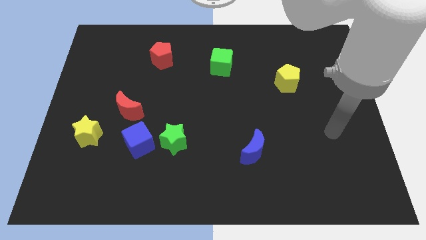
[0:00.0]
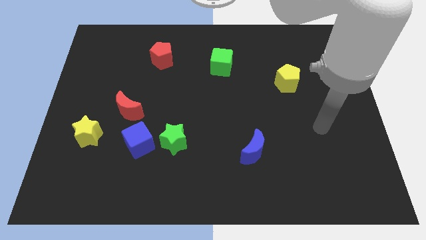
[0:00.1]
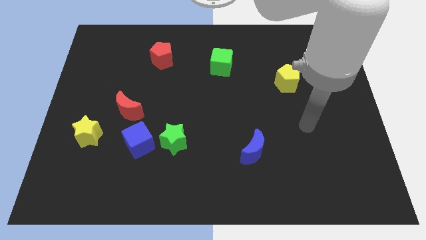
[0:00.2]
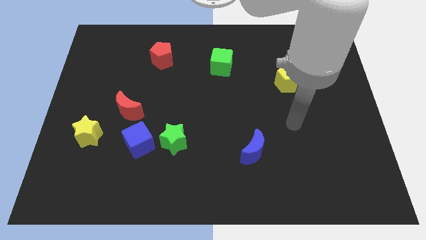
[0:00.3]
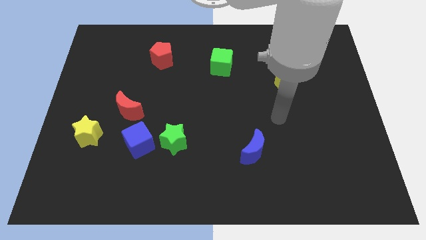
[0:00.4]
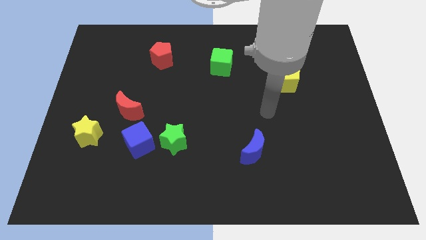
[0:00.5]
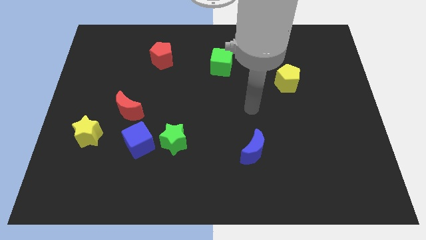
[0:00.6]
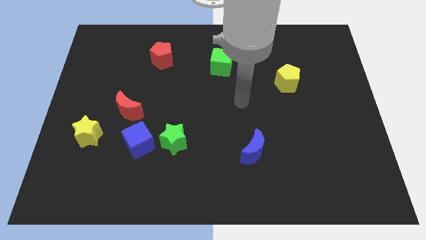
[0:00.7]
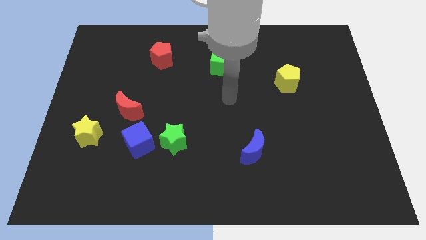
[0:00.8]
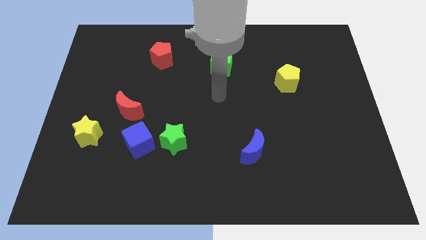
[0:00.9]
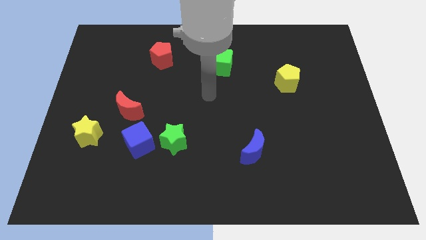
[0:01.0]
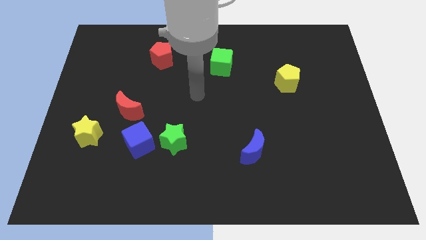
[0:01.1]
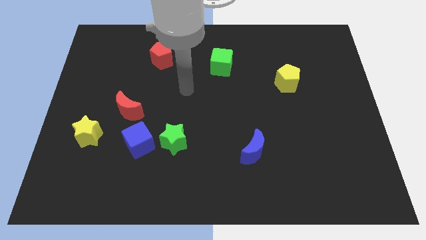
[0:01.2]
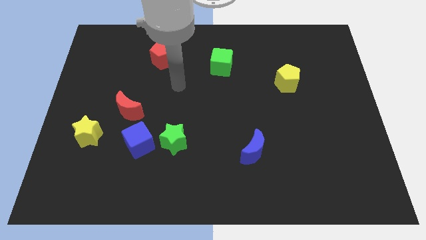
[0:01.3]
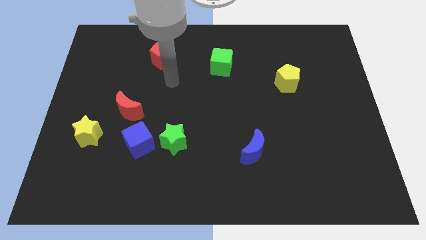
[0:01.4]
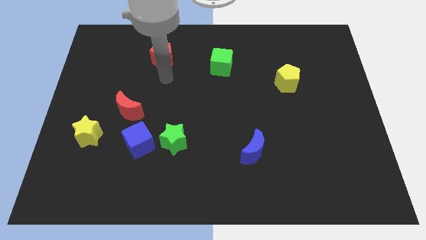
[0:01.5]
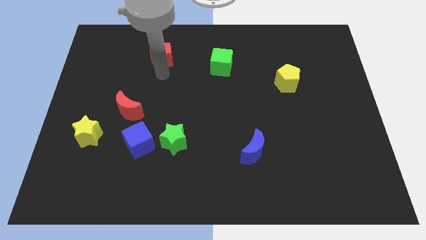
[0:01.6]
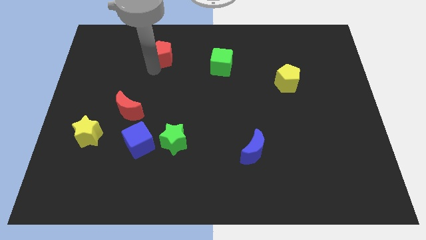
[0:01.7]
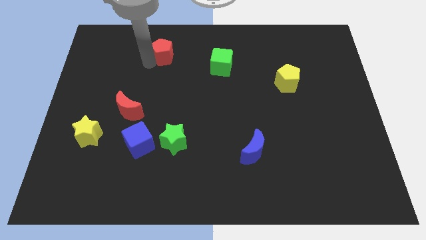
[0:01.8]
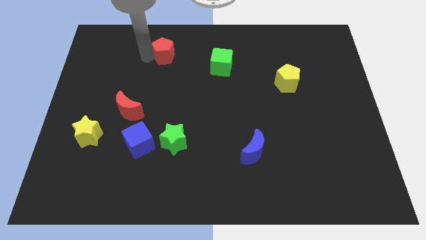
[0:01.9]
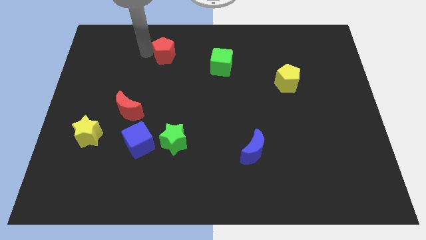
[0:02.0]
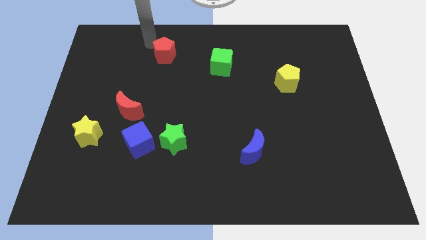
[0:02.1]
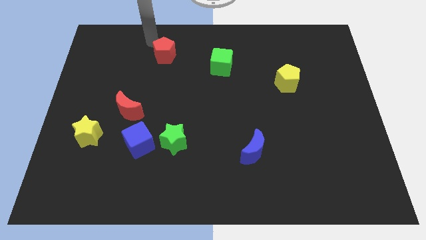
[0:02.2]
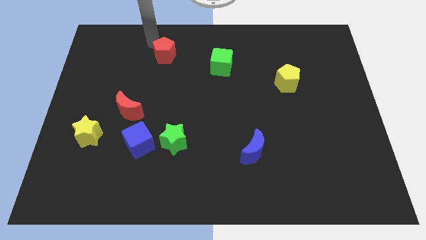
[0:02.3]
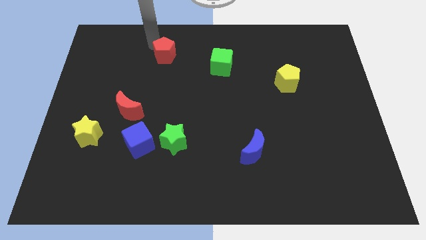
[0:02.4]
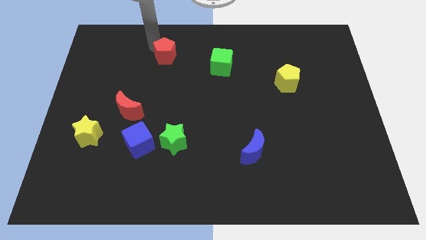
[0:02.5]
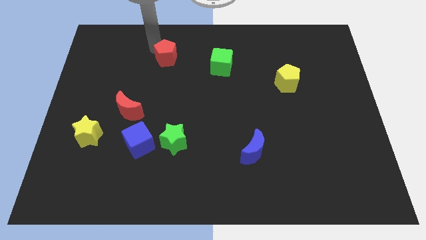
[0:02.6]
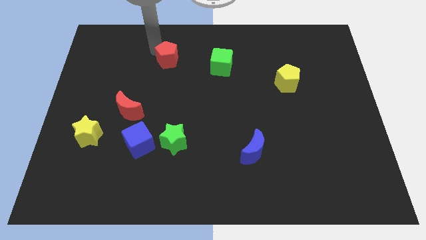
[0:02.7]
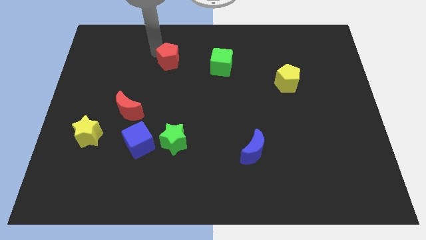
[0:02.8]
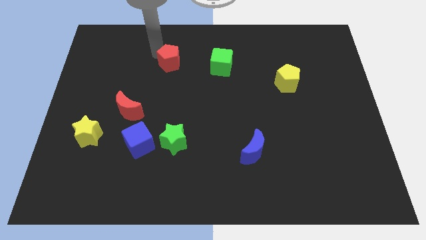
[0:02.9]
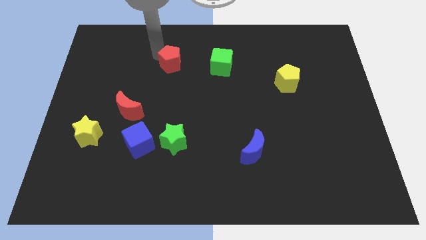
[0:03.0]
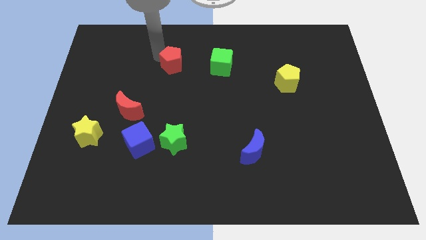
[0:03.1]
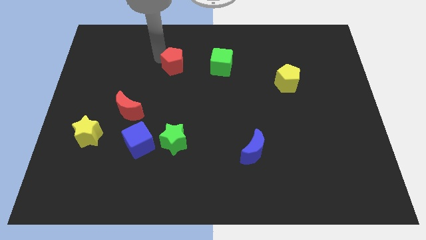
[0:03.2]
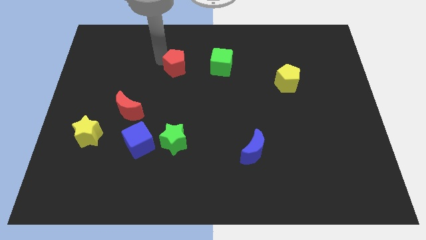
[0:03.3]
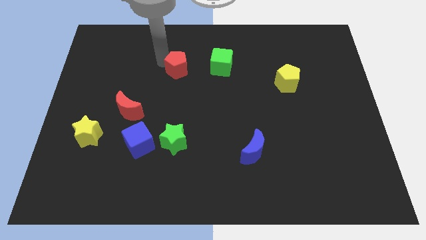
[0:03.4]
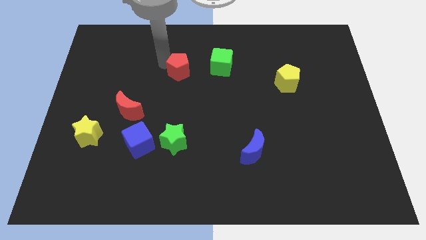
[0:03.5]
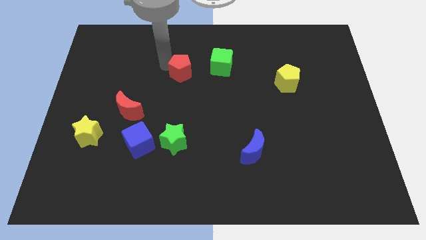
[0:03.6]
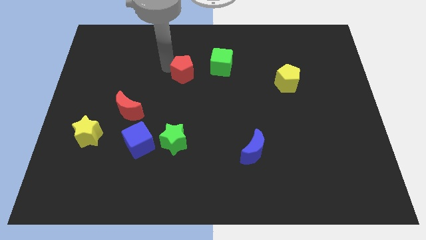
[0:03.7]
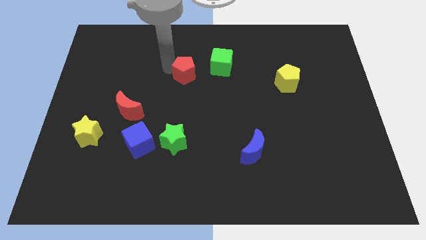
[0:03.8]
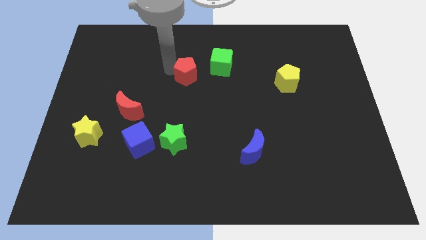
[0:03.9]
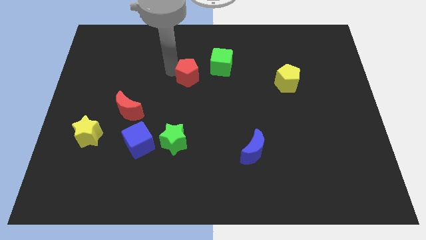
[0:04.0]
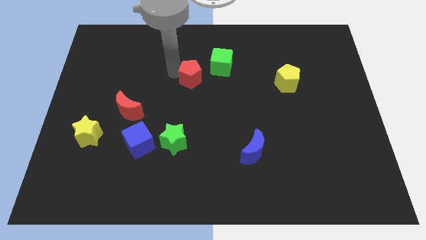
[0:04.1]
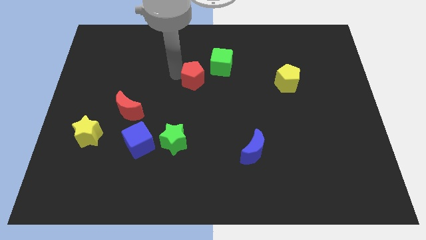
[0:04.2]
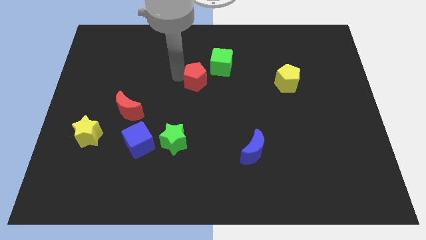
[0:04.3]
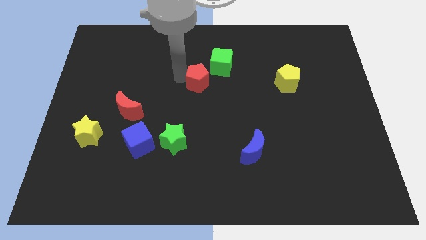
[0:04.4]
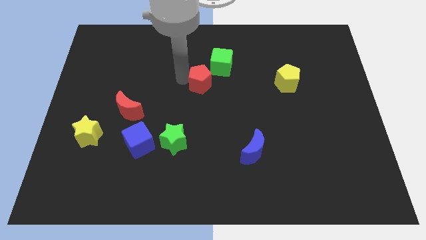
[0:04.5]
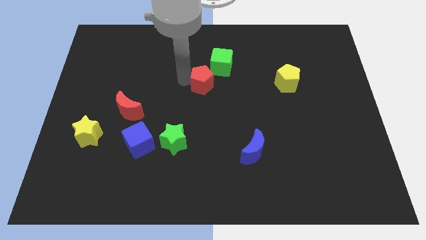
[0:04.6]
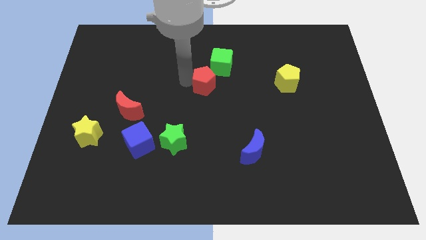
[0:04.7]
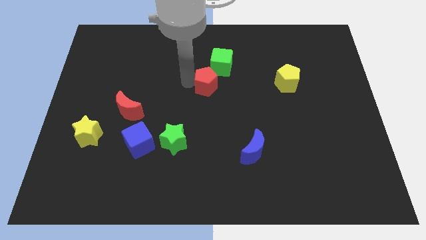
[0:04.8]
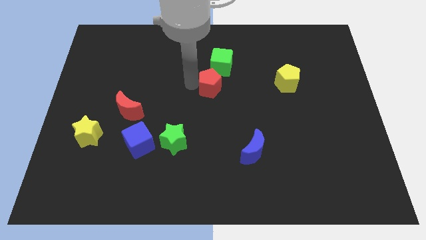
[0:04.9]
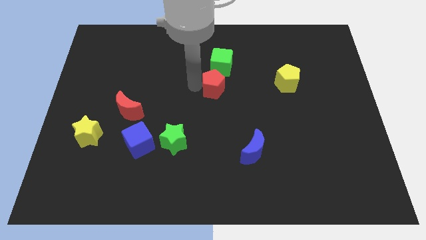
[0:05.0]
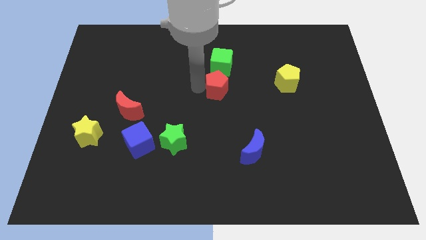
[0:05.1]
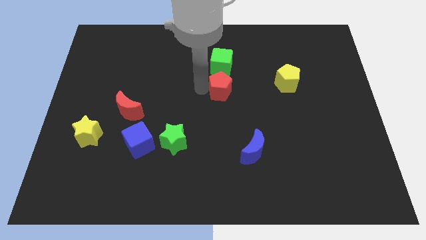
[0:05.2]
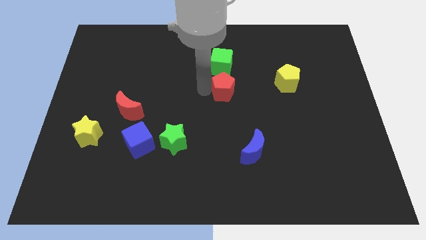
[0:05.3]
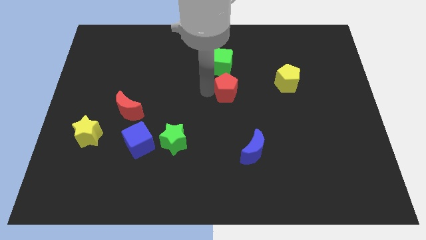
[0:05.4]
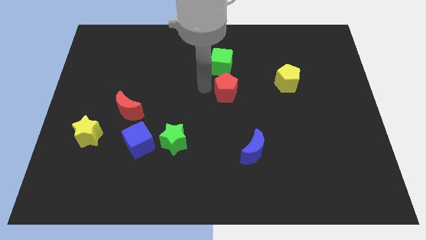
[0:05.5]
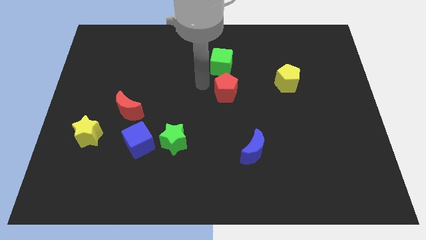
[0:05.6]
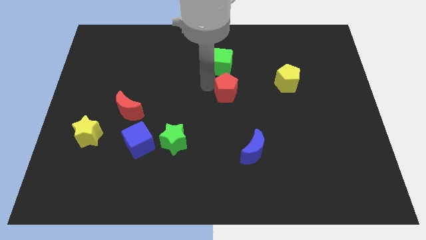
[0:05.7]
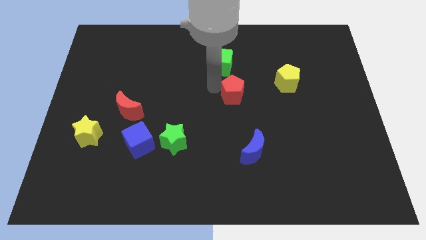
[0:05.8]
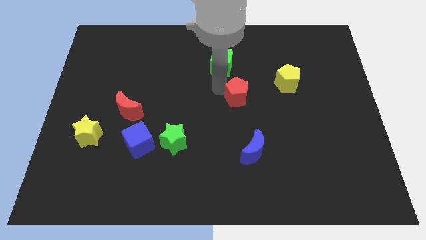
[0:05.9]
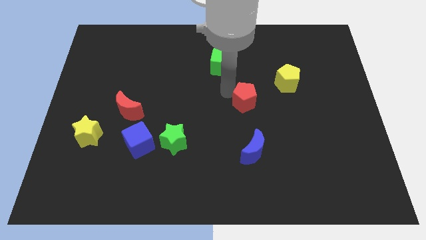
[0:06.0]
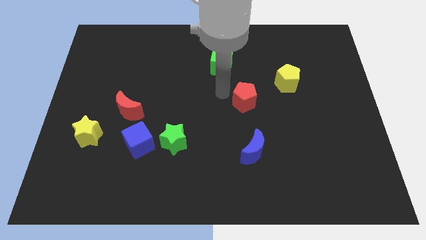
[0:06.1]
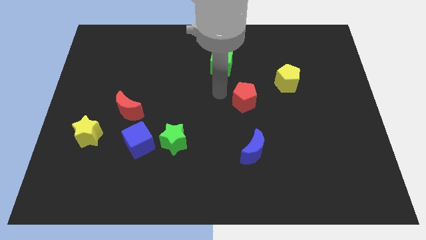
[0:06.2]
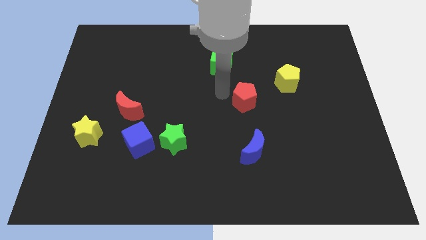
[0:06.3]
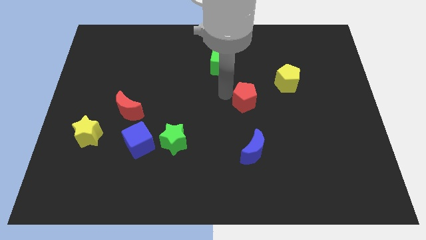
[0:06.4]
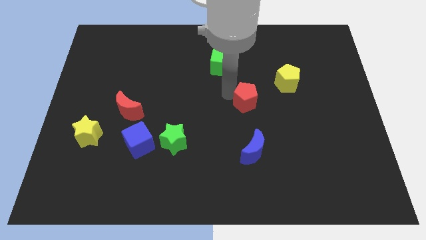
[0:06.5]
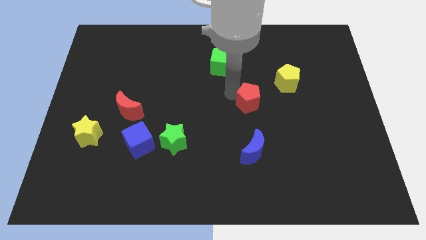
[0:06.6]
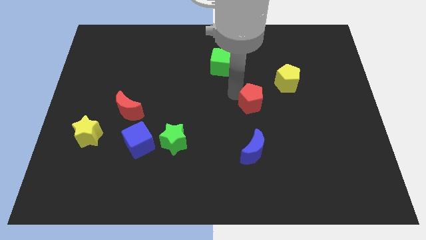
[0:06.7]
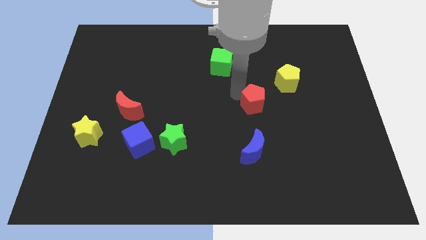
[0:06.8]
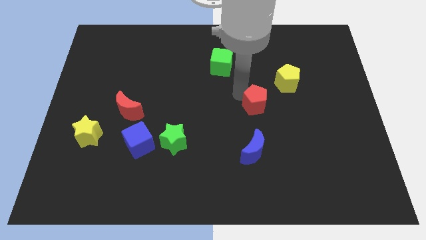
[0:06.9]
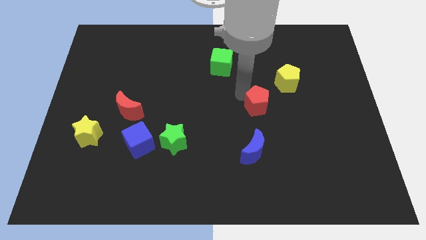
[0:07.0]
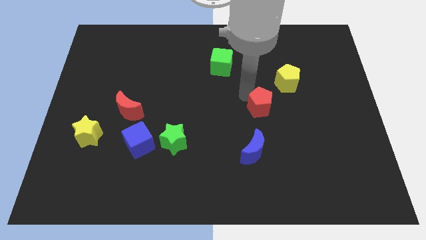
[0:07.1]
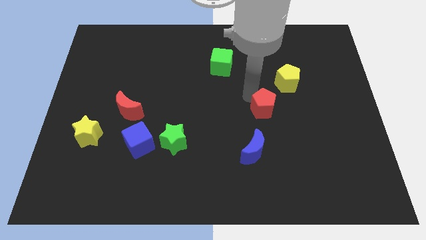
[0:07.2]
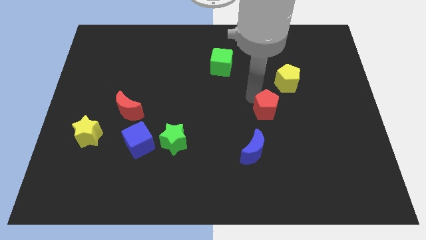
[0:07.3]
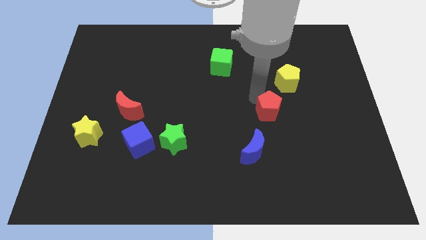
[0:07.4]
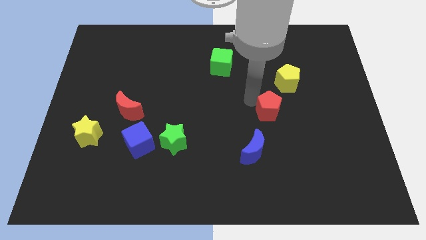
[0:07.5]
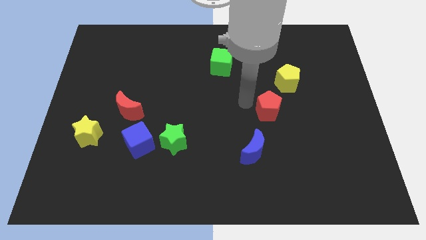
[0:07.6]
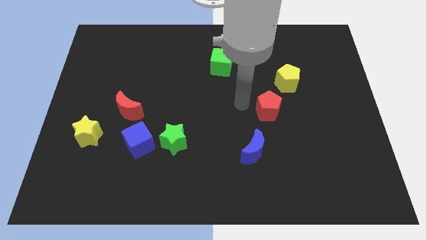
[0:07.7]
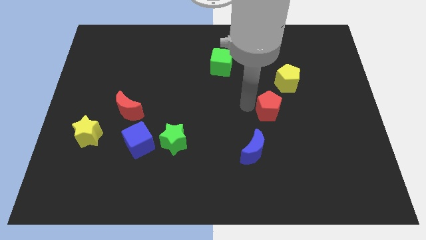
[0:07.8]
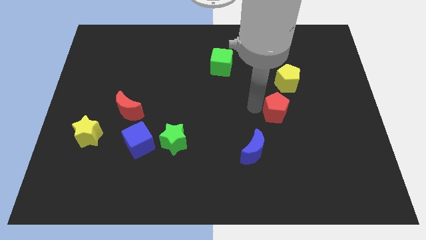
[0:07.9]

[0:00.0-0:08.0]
put the red pentagon below the yellow pentagon
